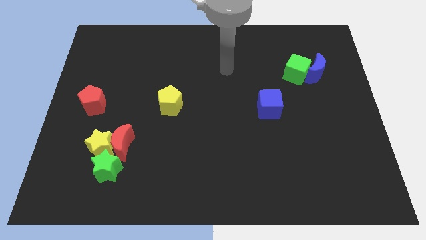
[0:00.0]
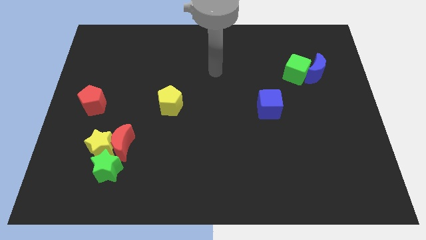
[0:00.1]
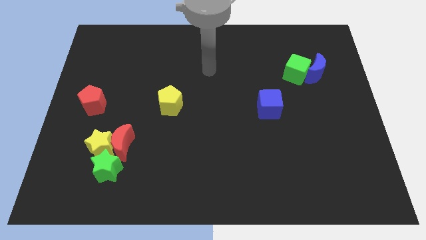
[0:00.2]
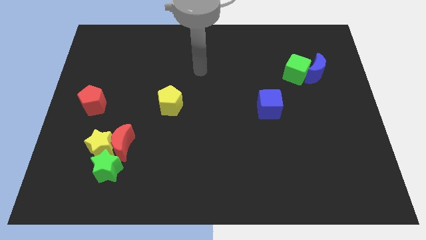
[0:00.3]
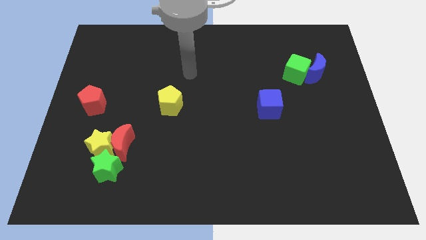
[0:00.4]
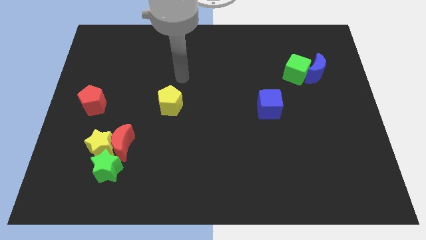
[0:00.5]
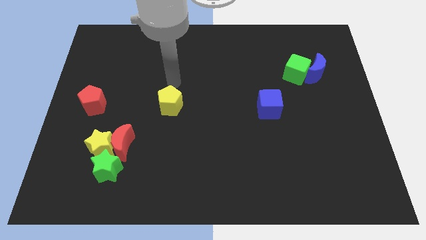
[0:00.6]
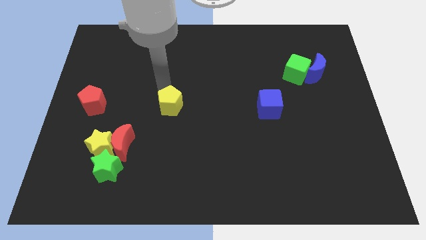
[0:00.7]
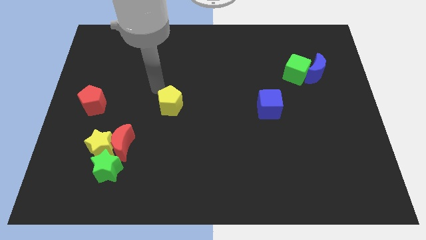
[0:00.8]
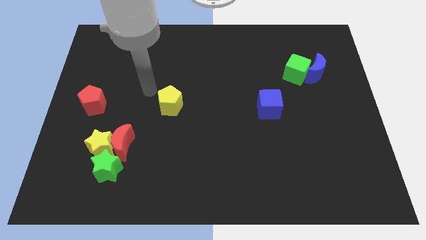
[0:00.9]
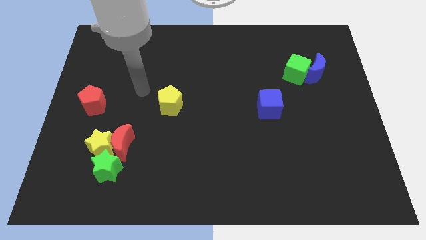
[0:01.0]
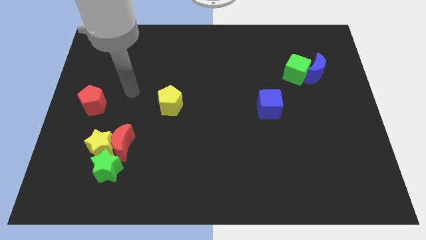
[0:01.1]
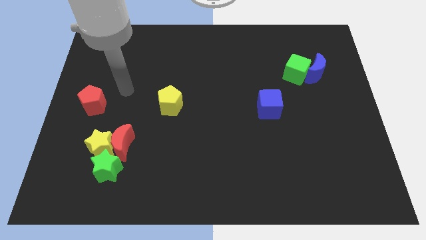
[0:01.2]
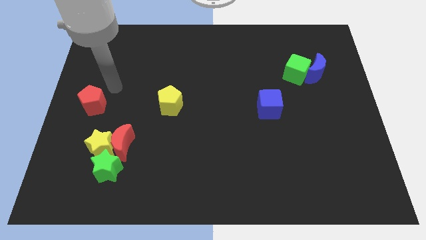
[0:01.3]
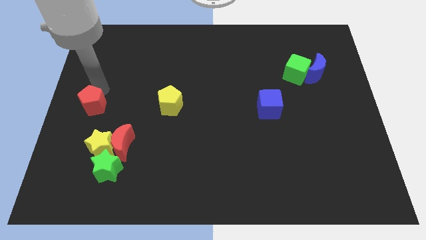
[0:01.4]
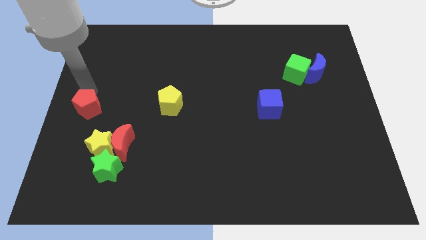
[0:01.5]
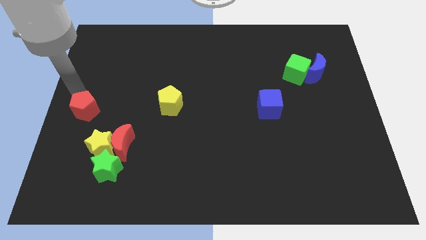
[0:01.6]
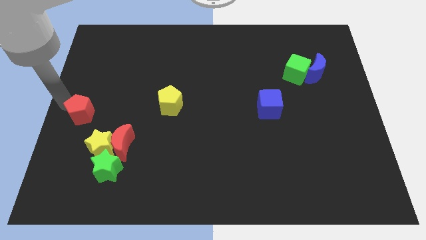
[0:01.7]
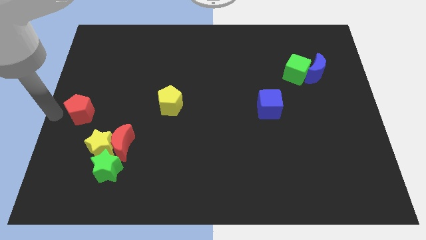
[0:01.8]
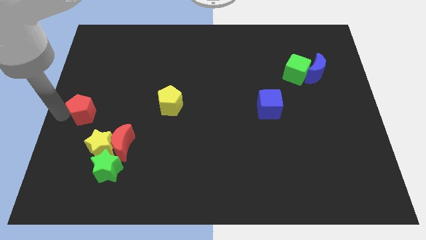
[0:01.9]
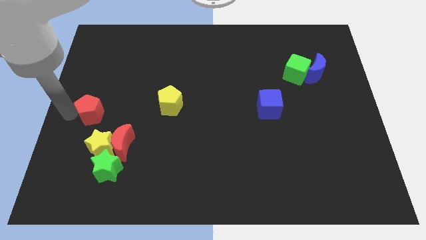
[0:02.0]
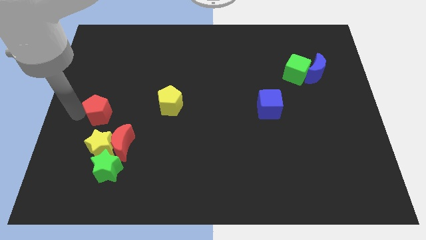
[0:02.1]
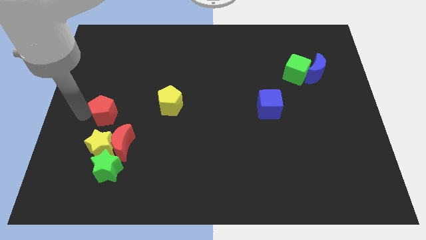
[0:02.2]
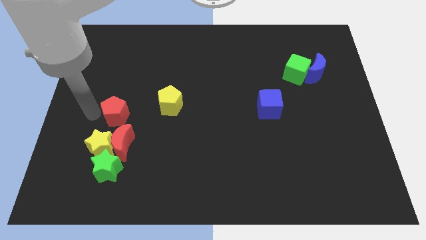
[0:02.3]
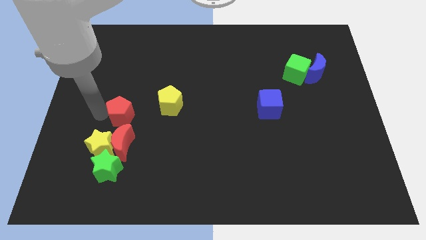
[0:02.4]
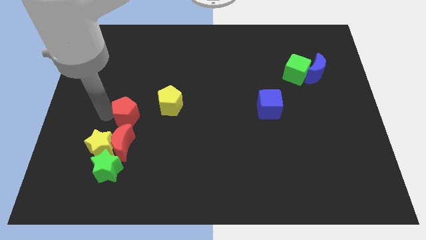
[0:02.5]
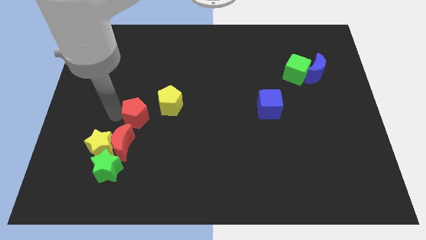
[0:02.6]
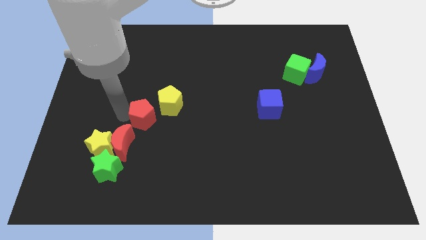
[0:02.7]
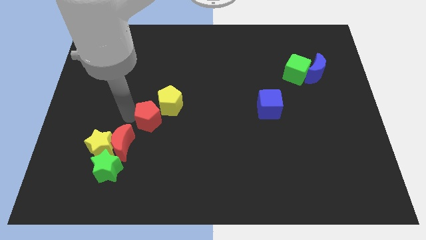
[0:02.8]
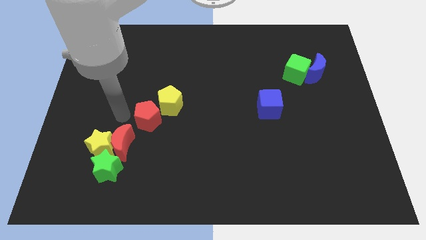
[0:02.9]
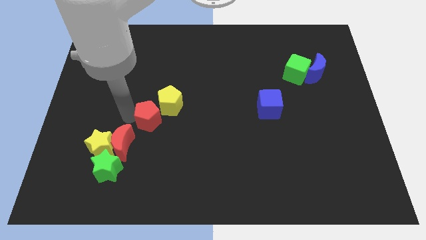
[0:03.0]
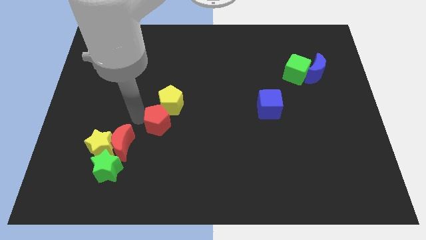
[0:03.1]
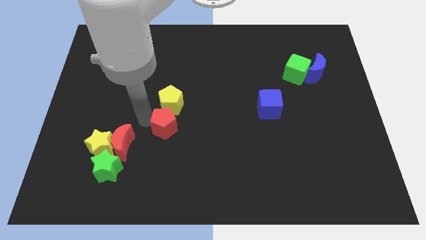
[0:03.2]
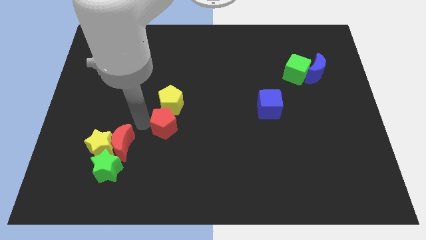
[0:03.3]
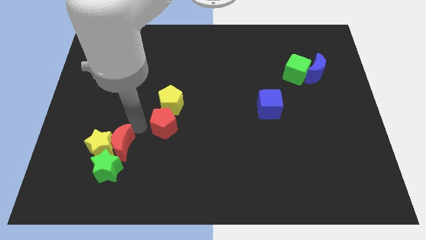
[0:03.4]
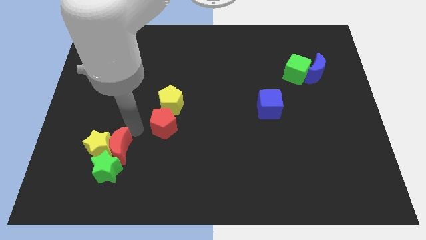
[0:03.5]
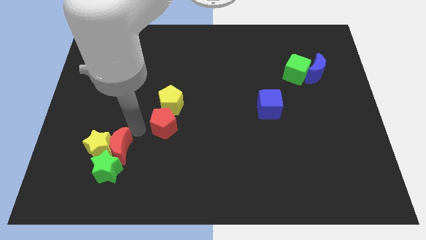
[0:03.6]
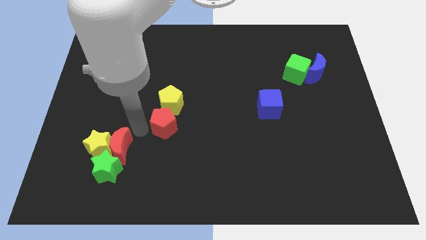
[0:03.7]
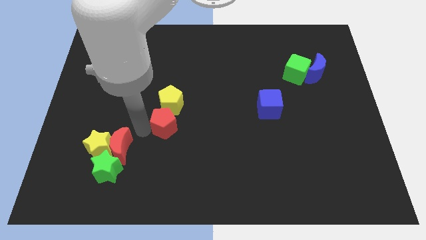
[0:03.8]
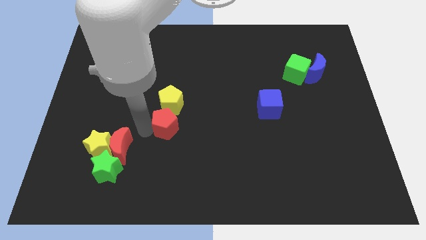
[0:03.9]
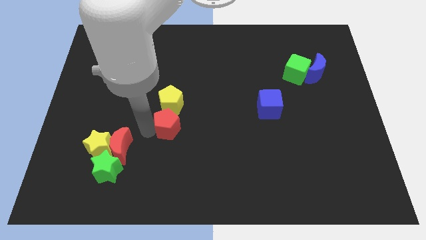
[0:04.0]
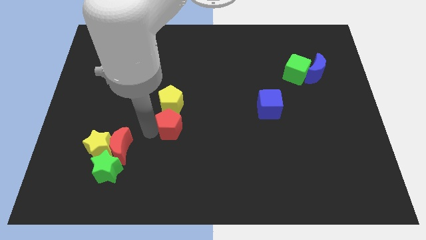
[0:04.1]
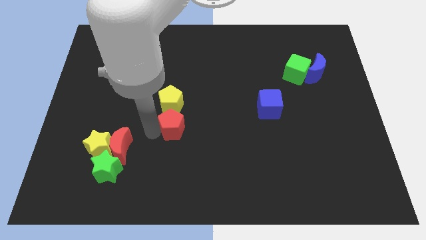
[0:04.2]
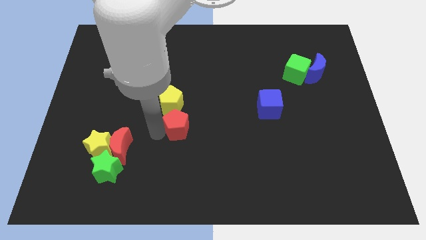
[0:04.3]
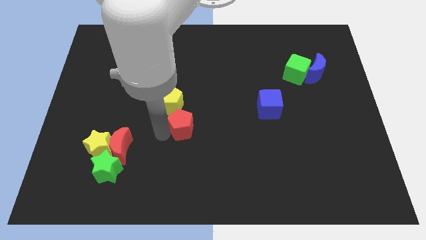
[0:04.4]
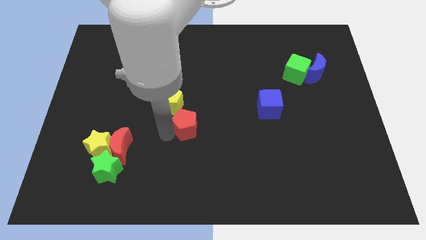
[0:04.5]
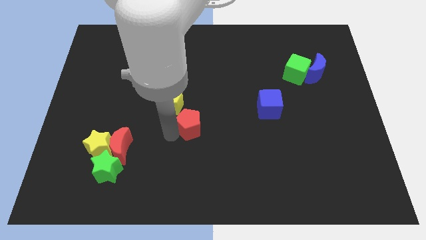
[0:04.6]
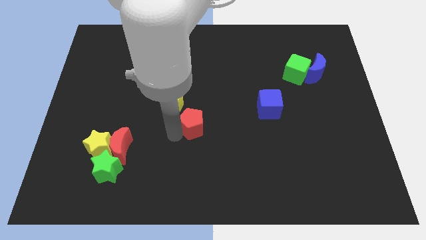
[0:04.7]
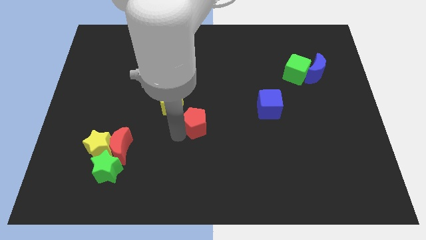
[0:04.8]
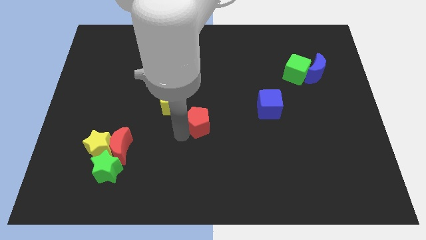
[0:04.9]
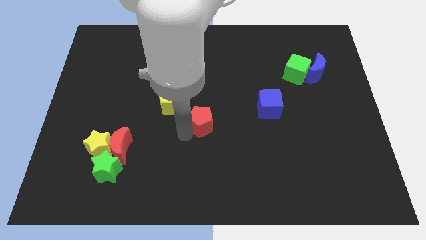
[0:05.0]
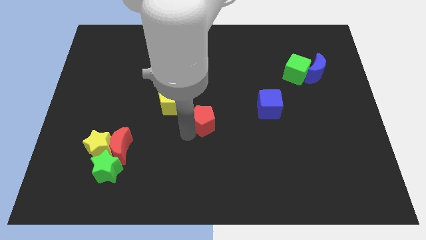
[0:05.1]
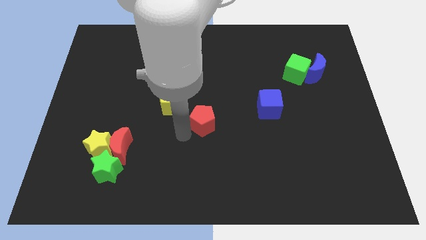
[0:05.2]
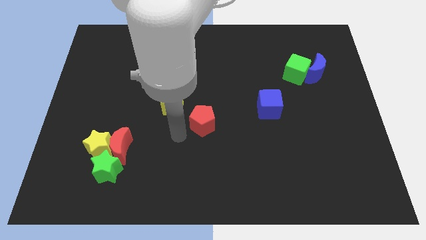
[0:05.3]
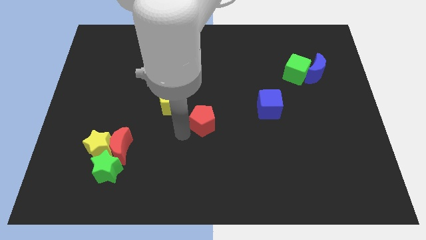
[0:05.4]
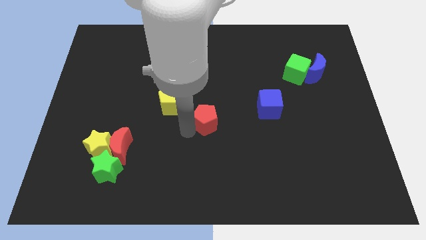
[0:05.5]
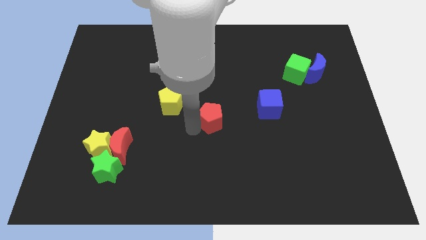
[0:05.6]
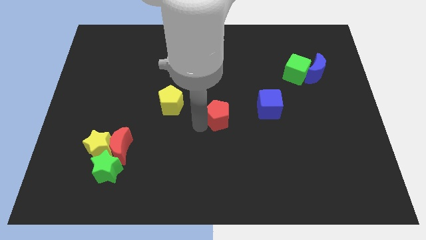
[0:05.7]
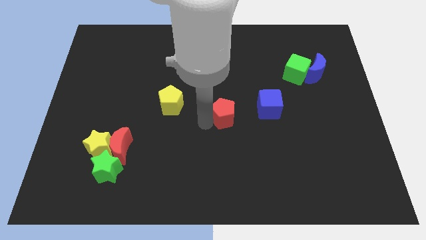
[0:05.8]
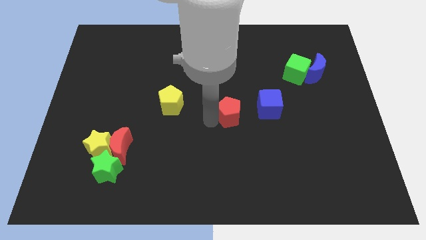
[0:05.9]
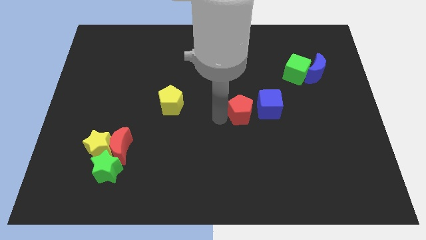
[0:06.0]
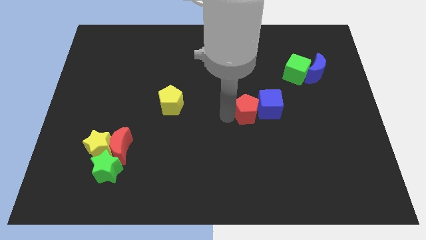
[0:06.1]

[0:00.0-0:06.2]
put the red pentagon towards the blue cube
